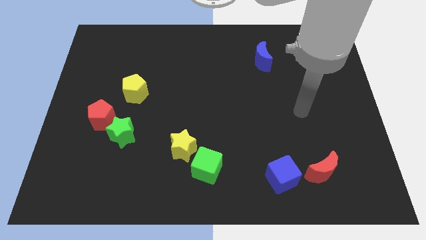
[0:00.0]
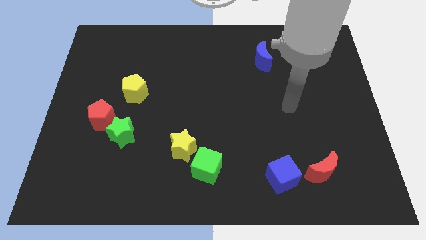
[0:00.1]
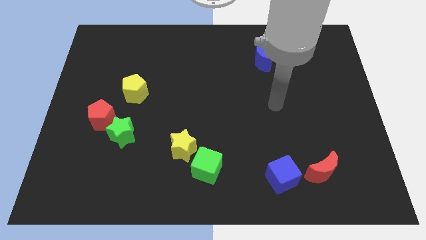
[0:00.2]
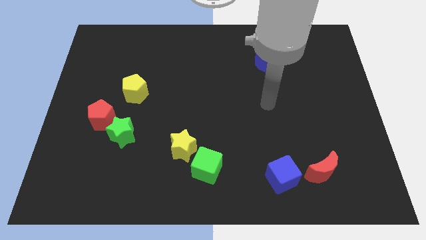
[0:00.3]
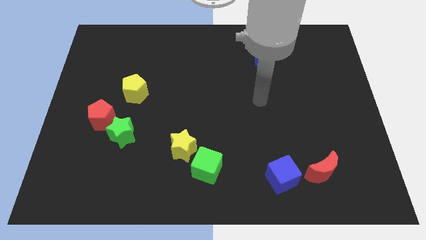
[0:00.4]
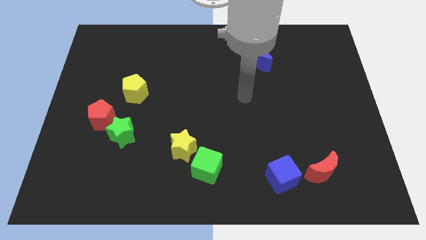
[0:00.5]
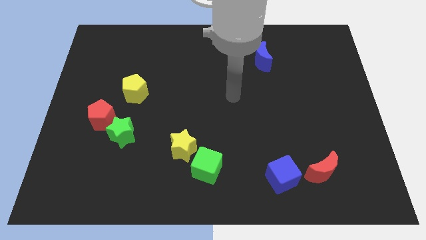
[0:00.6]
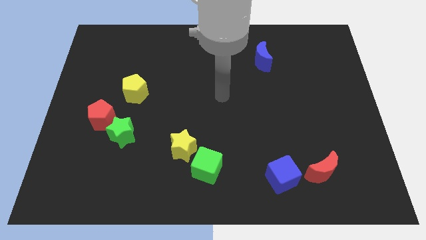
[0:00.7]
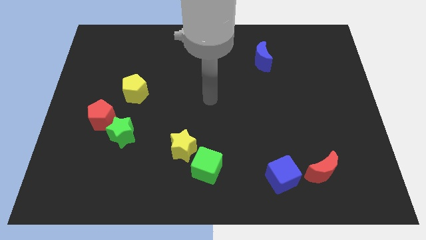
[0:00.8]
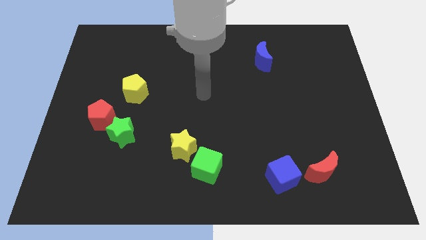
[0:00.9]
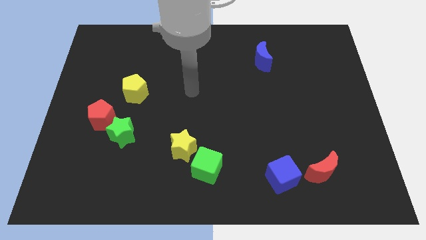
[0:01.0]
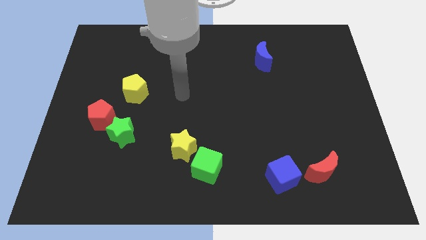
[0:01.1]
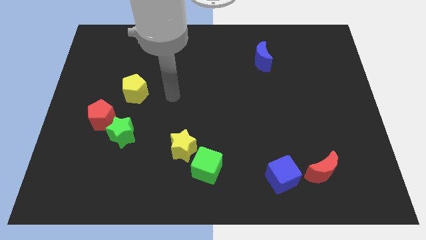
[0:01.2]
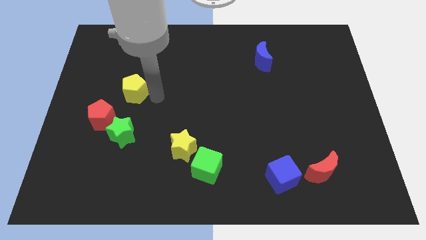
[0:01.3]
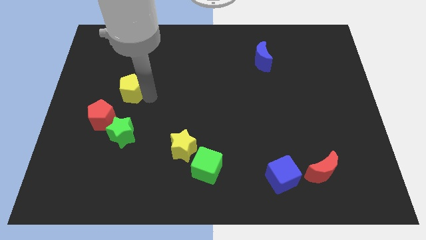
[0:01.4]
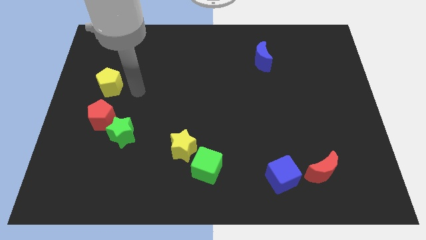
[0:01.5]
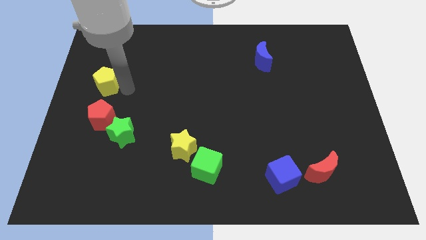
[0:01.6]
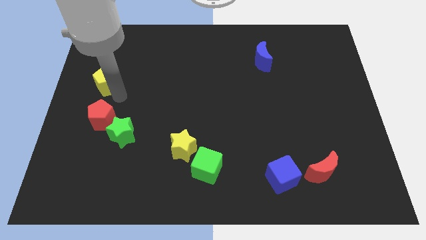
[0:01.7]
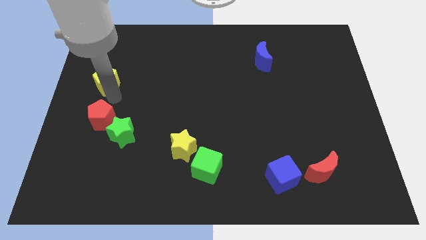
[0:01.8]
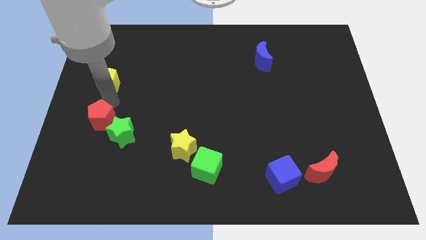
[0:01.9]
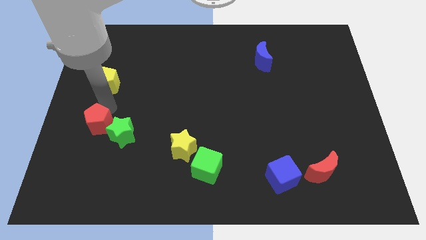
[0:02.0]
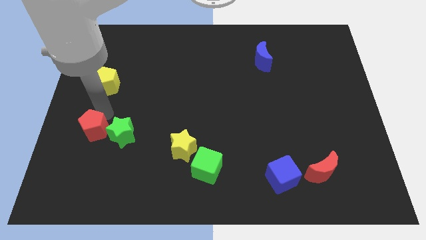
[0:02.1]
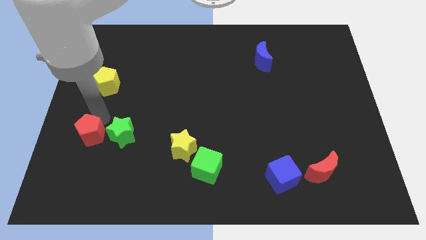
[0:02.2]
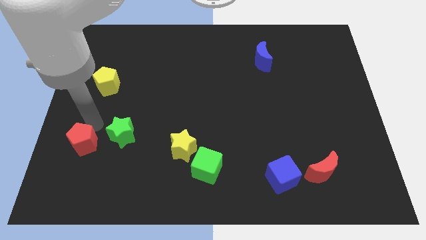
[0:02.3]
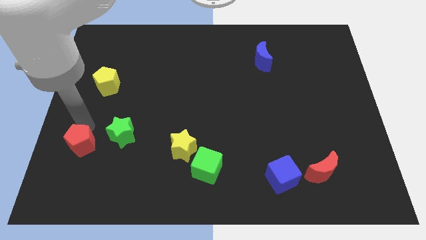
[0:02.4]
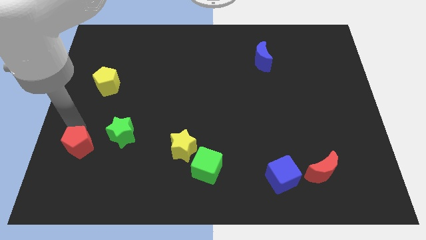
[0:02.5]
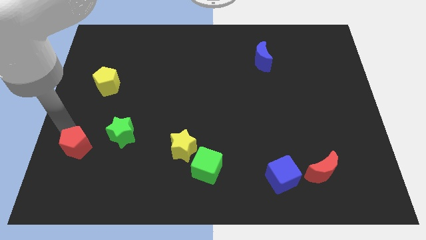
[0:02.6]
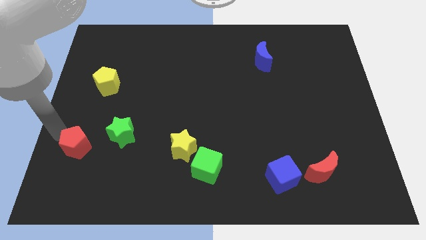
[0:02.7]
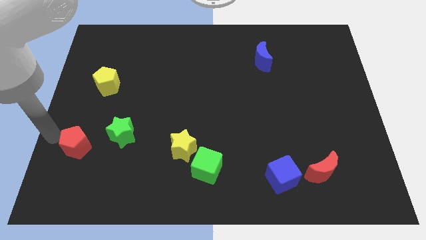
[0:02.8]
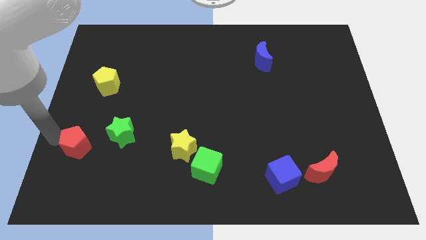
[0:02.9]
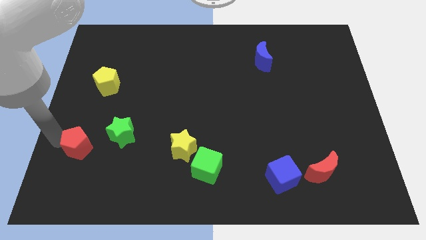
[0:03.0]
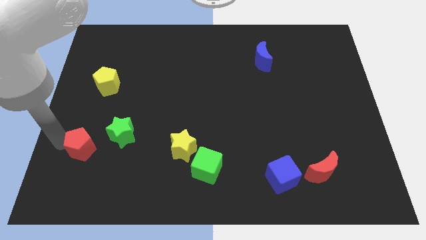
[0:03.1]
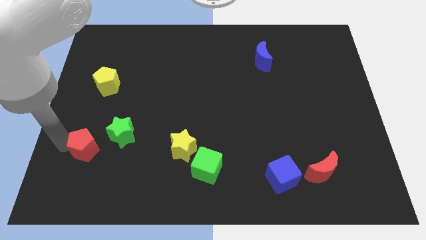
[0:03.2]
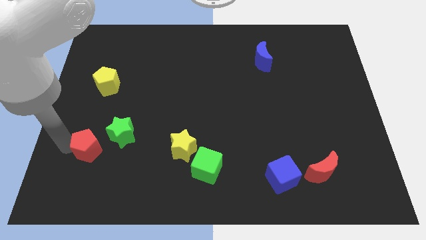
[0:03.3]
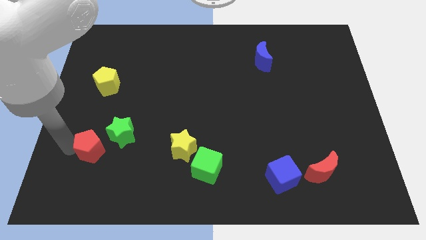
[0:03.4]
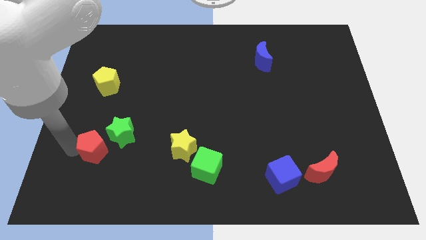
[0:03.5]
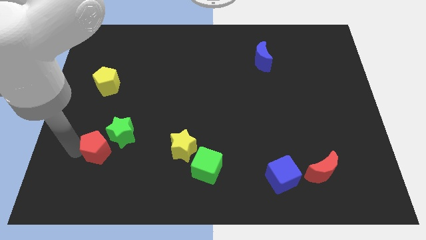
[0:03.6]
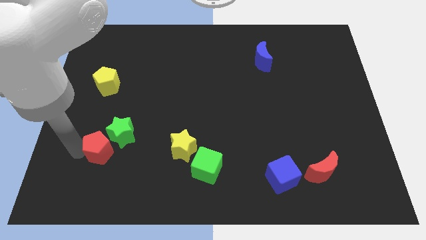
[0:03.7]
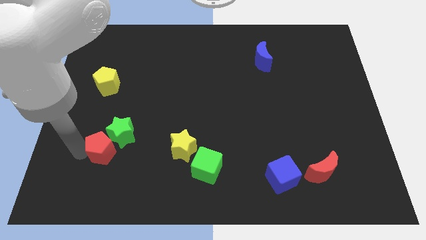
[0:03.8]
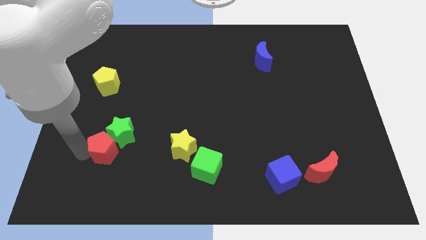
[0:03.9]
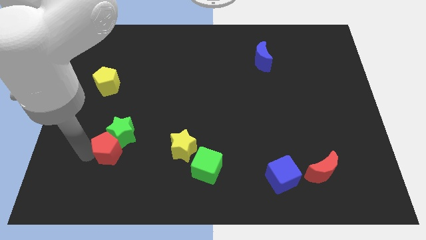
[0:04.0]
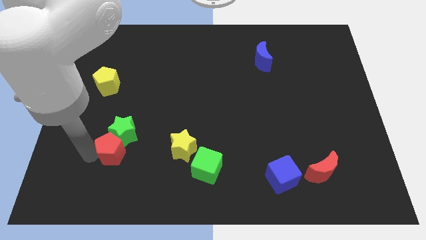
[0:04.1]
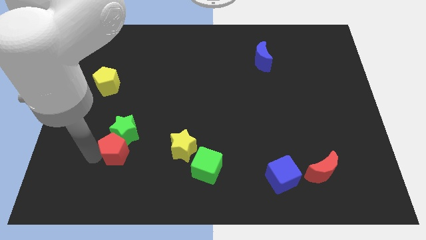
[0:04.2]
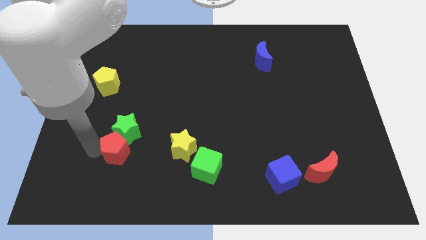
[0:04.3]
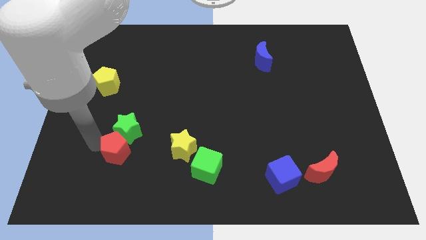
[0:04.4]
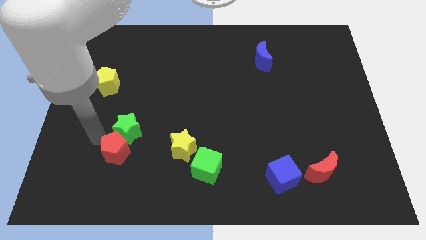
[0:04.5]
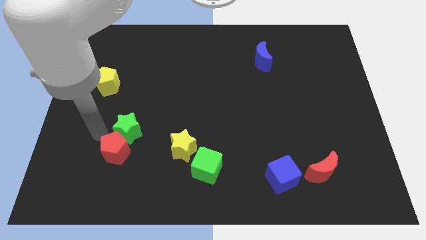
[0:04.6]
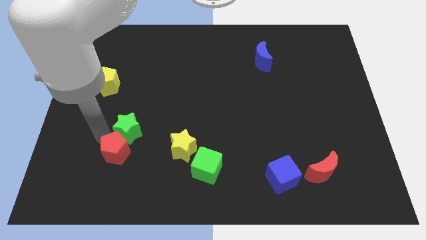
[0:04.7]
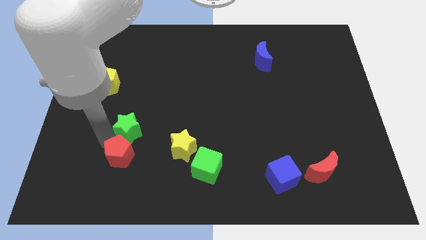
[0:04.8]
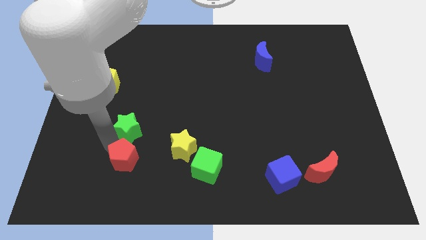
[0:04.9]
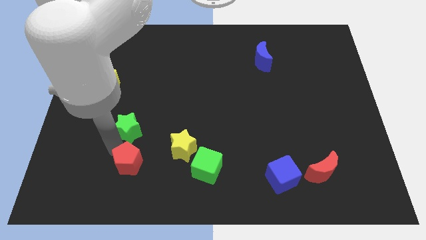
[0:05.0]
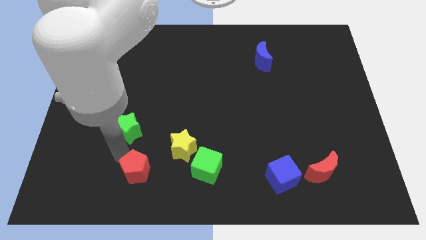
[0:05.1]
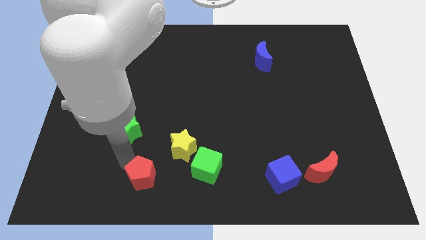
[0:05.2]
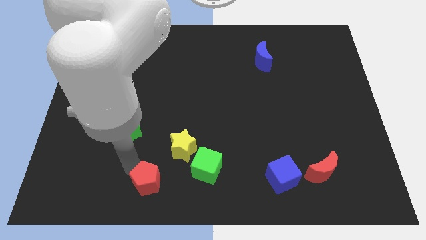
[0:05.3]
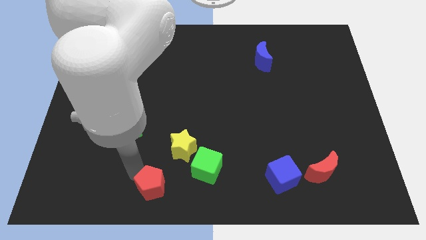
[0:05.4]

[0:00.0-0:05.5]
slide the red pentagon to the bottom

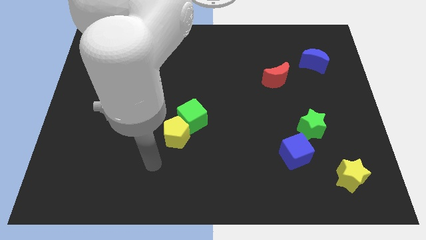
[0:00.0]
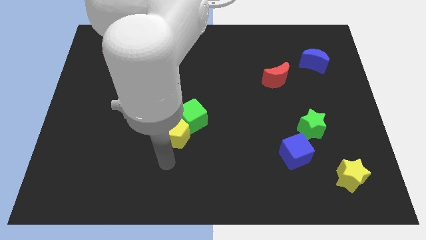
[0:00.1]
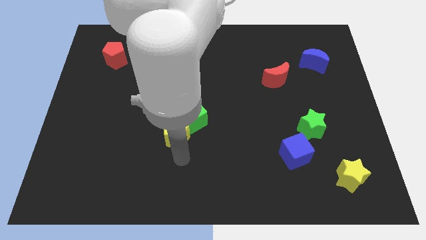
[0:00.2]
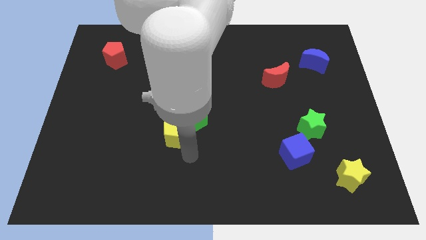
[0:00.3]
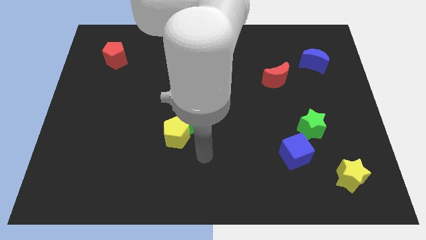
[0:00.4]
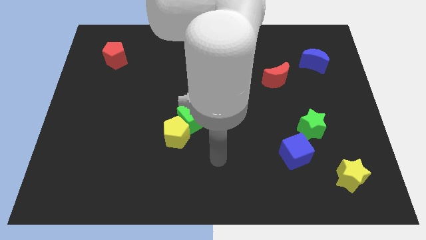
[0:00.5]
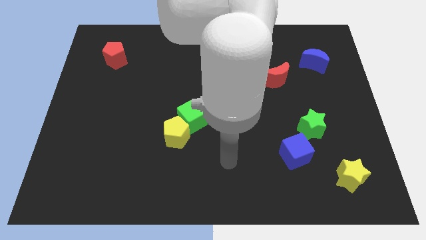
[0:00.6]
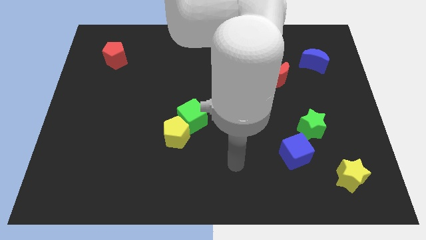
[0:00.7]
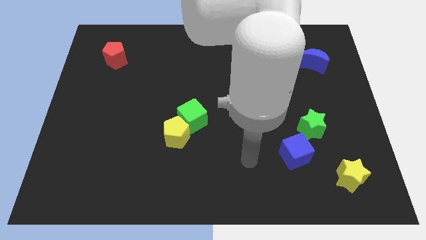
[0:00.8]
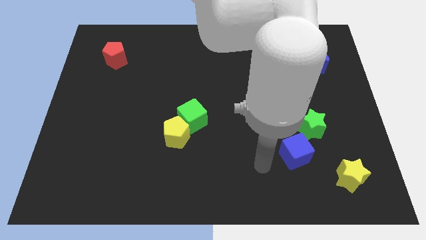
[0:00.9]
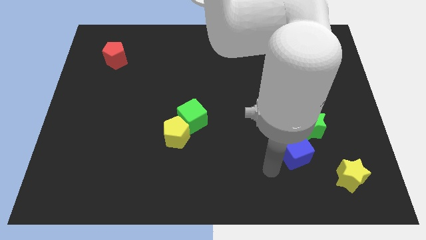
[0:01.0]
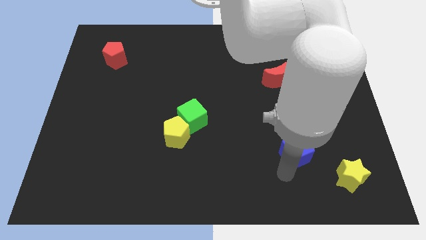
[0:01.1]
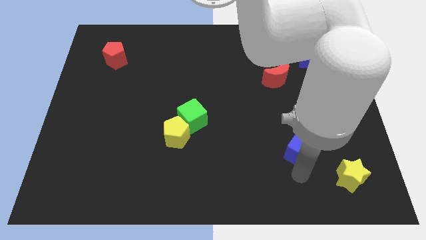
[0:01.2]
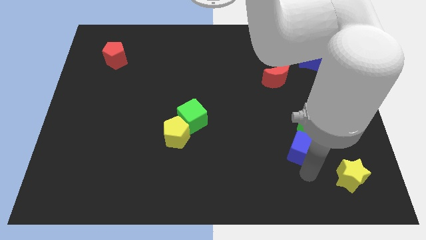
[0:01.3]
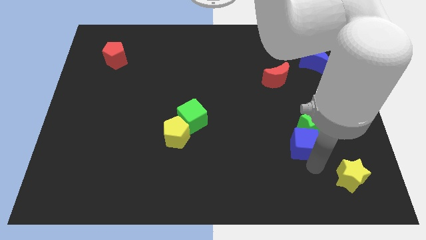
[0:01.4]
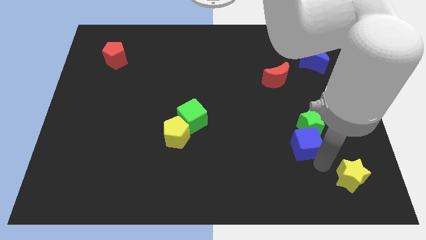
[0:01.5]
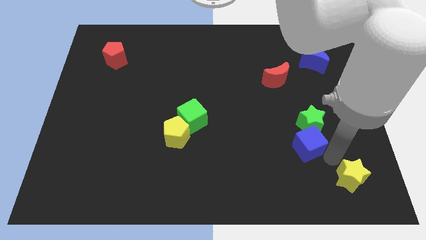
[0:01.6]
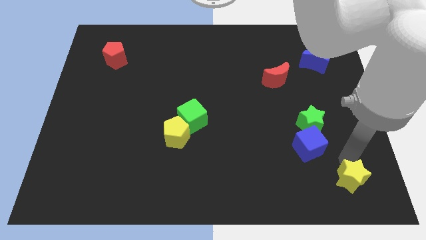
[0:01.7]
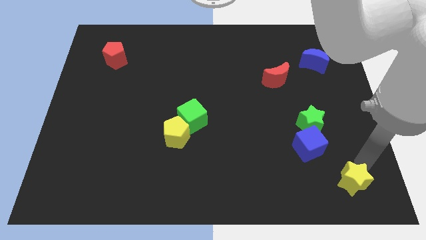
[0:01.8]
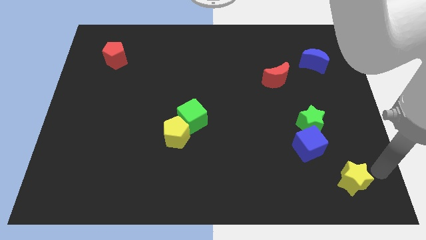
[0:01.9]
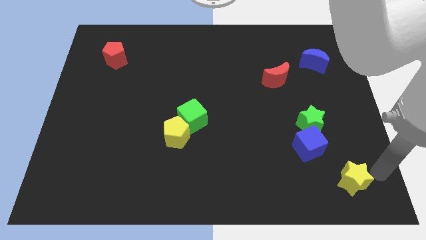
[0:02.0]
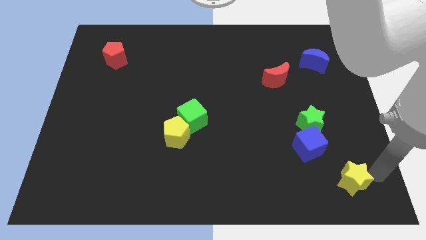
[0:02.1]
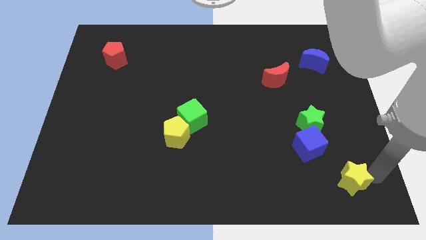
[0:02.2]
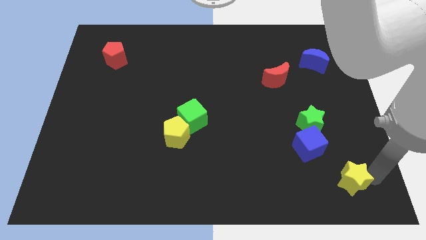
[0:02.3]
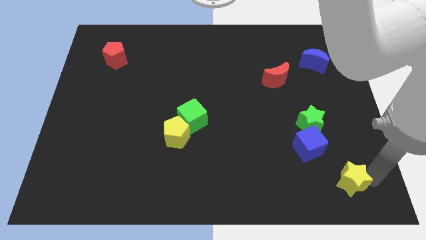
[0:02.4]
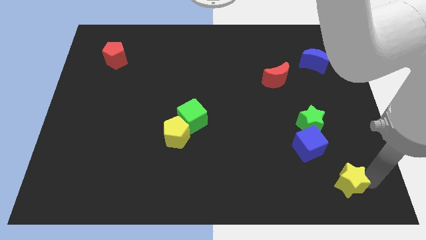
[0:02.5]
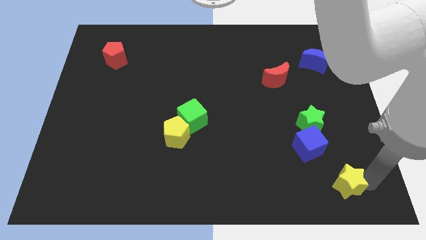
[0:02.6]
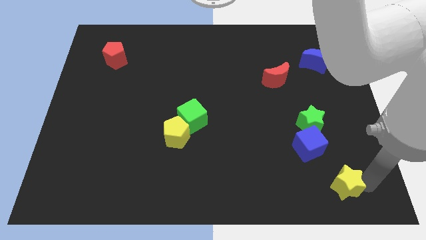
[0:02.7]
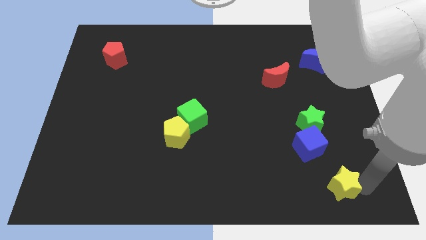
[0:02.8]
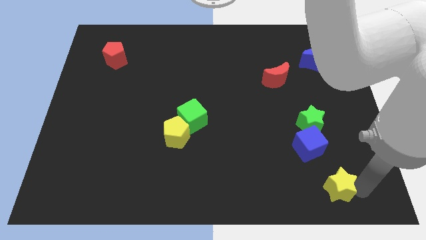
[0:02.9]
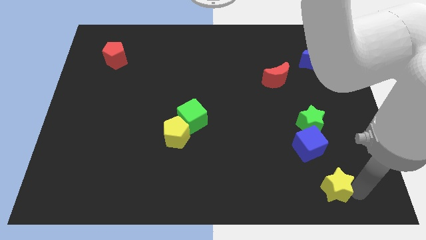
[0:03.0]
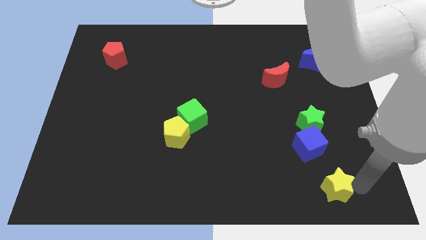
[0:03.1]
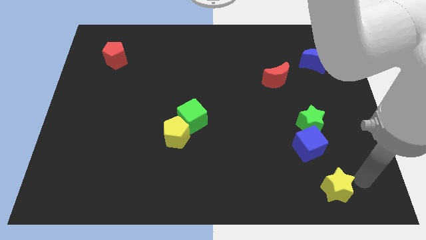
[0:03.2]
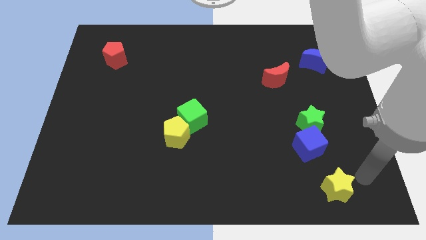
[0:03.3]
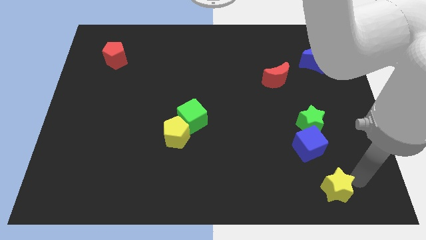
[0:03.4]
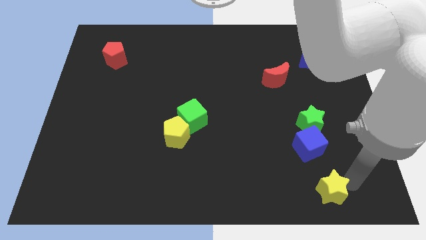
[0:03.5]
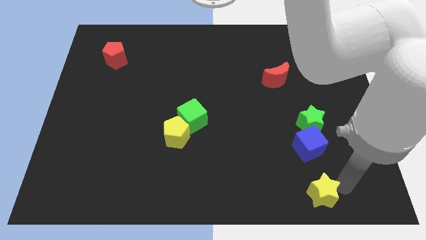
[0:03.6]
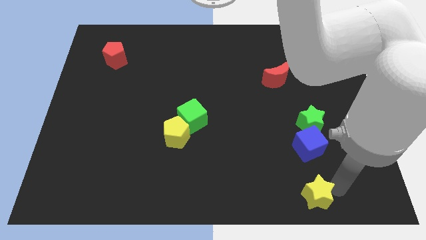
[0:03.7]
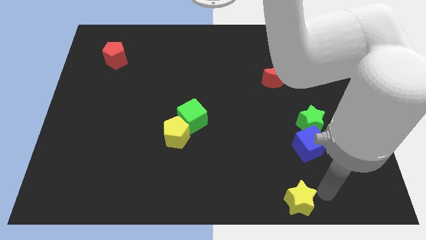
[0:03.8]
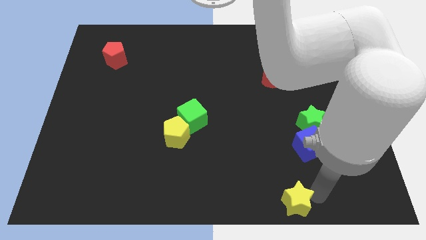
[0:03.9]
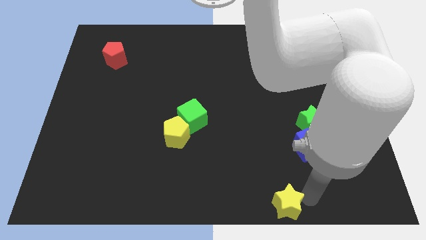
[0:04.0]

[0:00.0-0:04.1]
slide the yellow star to the bottom
